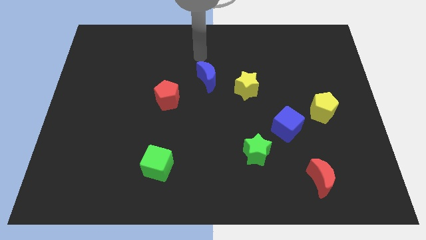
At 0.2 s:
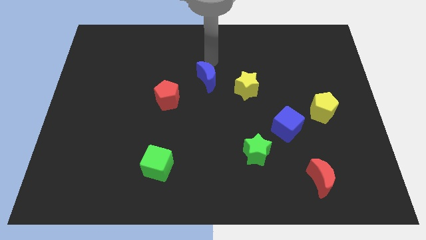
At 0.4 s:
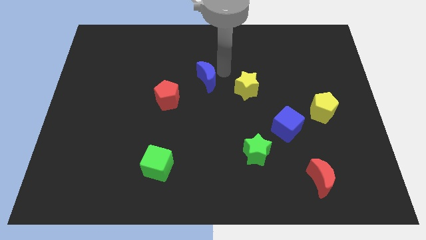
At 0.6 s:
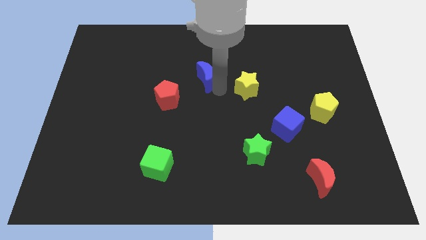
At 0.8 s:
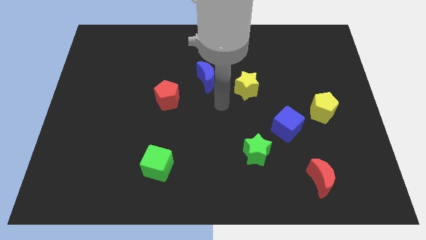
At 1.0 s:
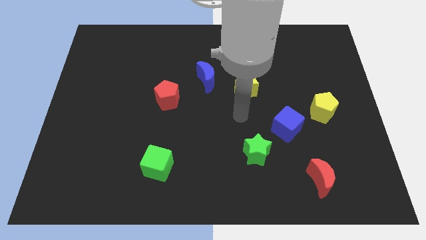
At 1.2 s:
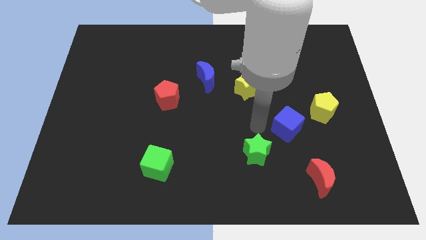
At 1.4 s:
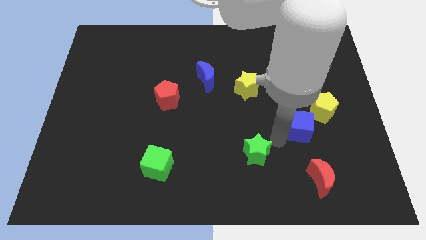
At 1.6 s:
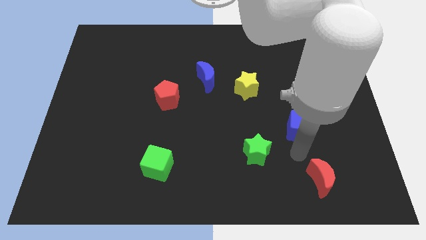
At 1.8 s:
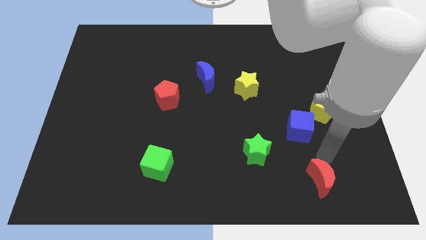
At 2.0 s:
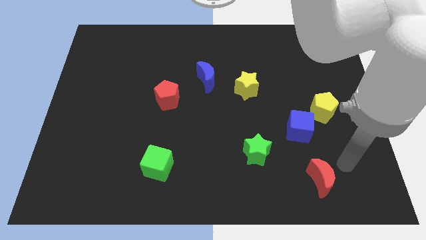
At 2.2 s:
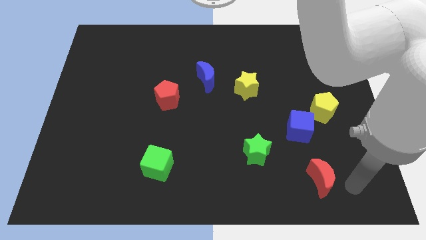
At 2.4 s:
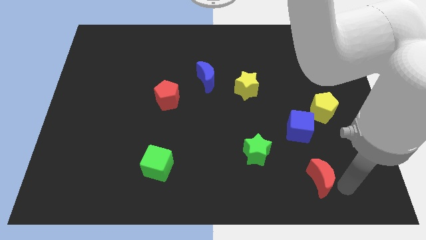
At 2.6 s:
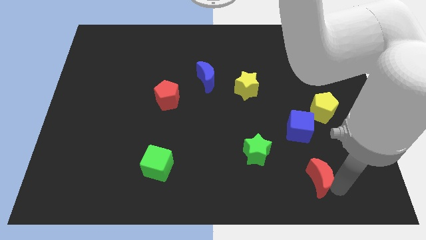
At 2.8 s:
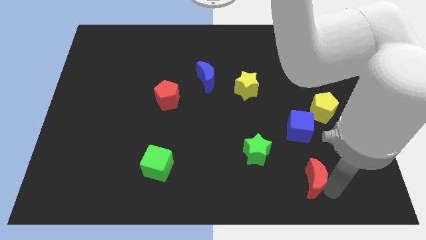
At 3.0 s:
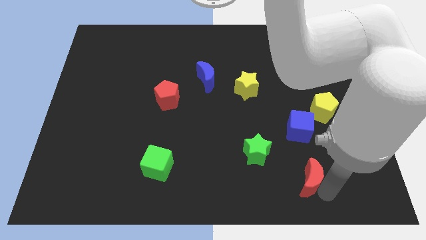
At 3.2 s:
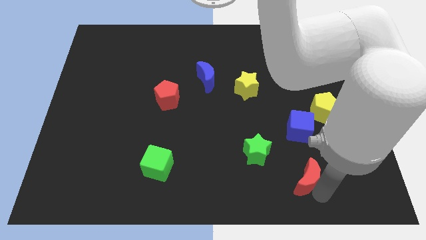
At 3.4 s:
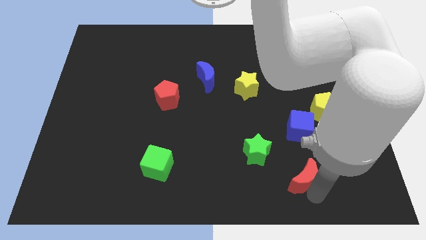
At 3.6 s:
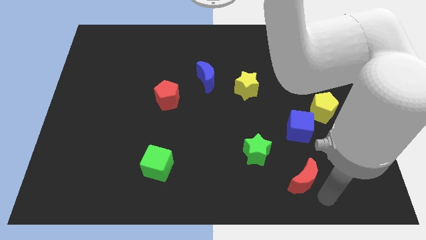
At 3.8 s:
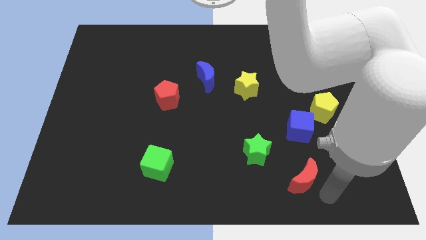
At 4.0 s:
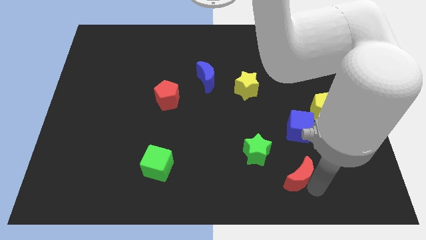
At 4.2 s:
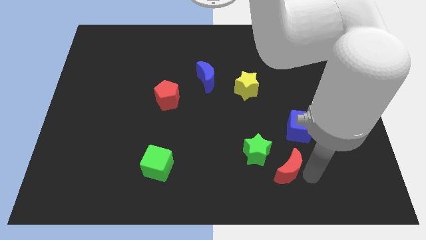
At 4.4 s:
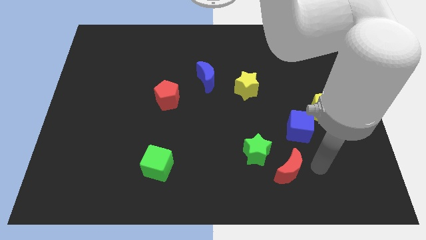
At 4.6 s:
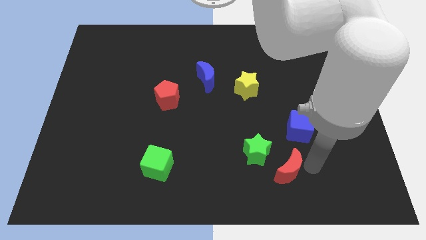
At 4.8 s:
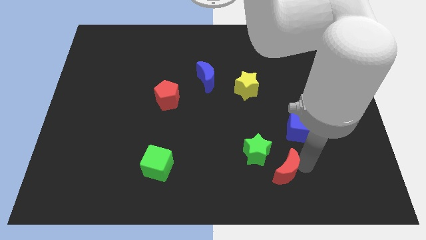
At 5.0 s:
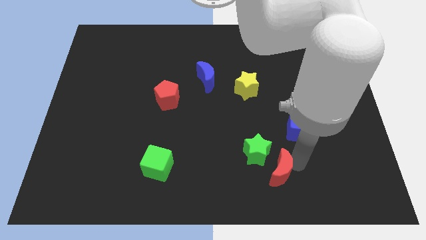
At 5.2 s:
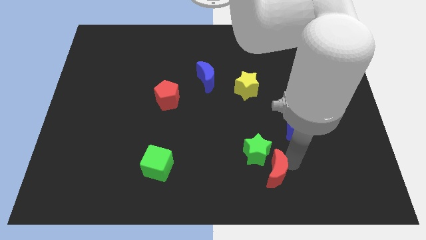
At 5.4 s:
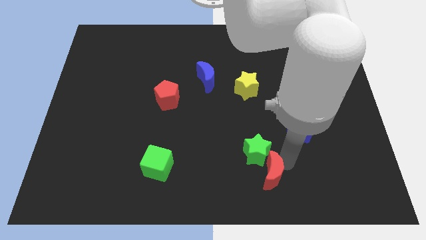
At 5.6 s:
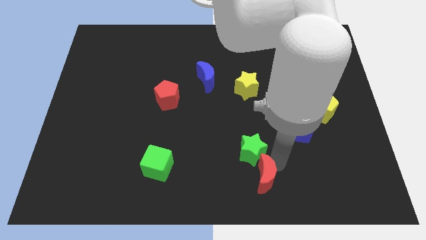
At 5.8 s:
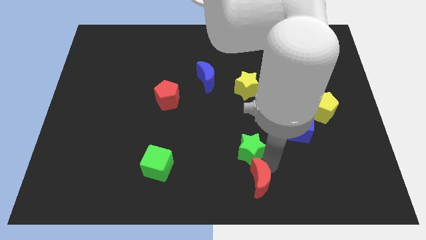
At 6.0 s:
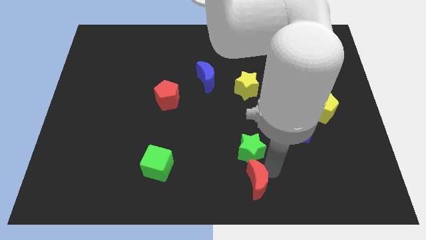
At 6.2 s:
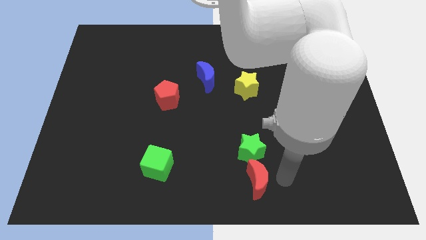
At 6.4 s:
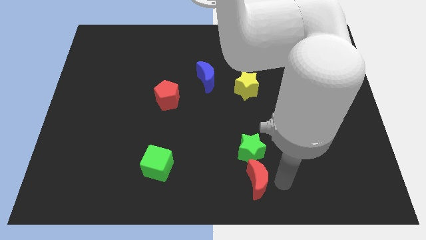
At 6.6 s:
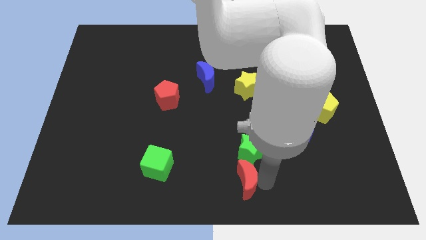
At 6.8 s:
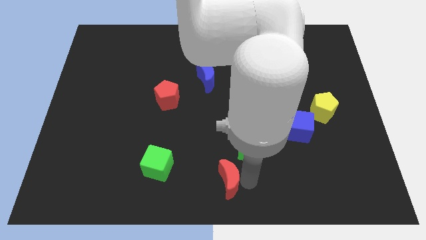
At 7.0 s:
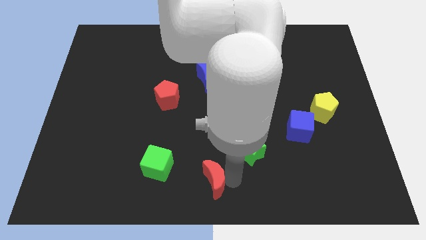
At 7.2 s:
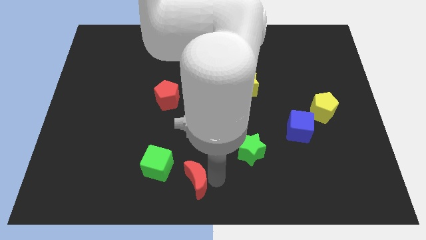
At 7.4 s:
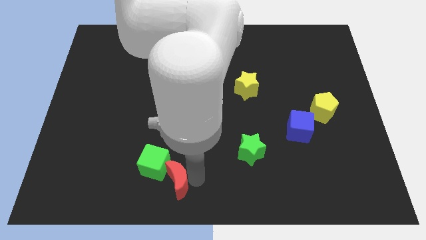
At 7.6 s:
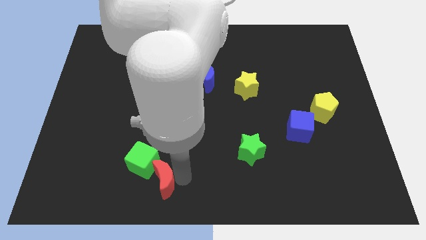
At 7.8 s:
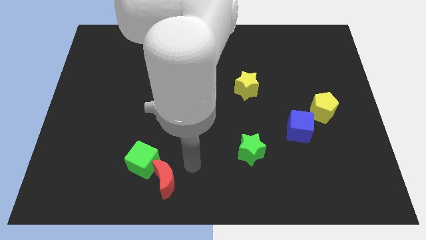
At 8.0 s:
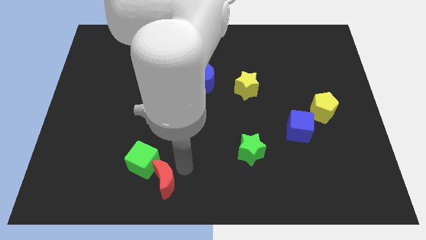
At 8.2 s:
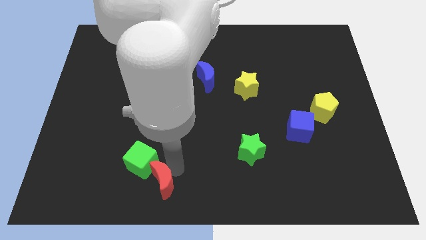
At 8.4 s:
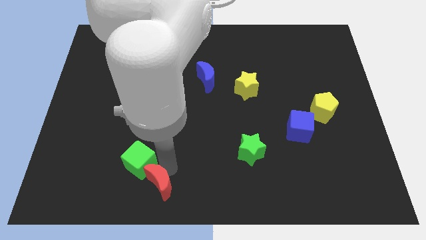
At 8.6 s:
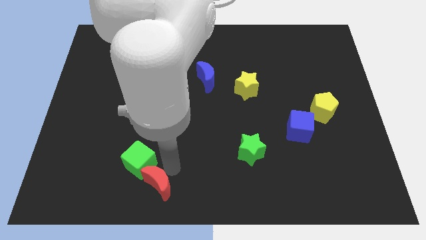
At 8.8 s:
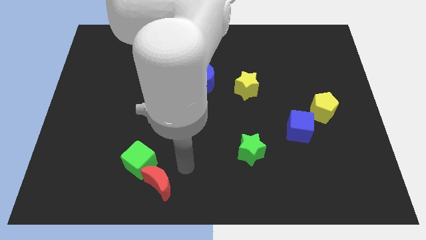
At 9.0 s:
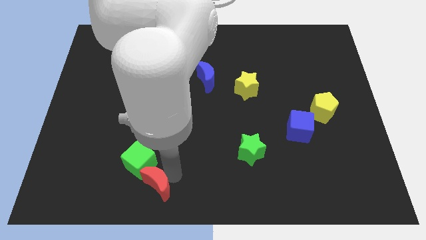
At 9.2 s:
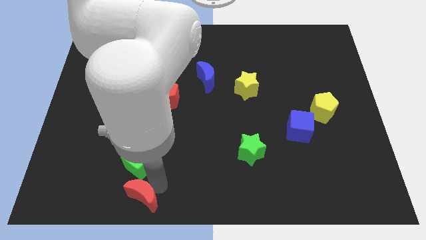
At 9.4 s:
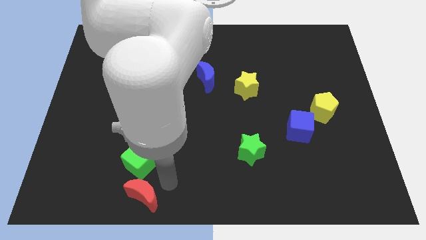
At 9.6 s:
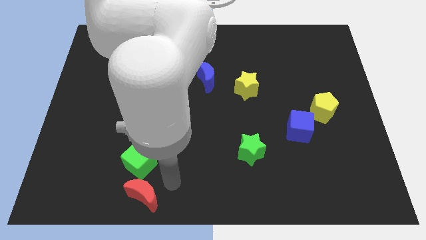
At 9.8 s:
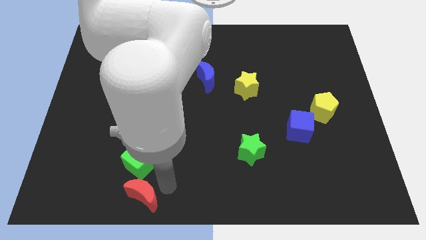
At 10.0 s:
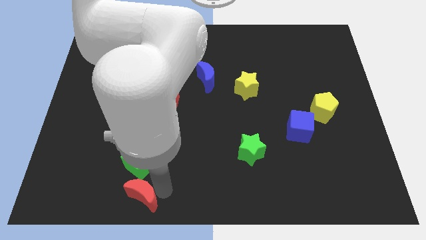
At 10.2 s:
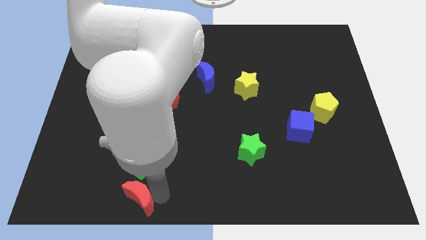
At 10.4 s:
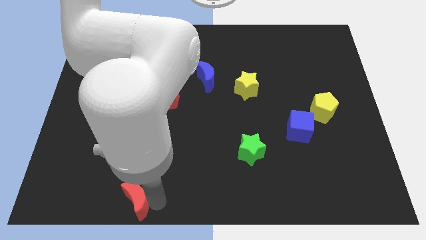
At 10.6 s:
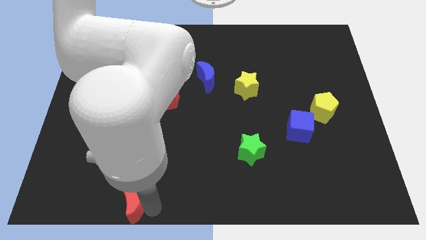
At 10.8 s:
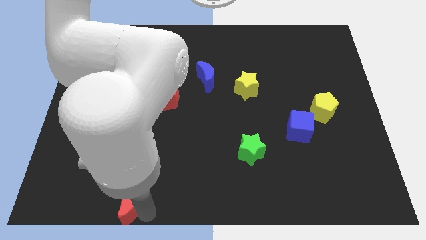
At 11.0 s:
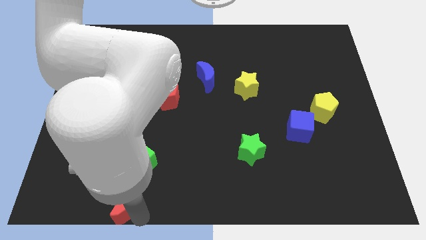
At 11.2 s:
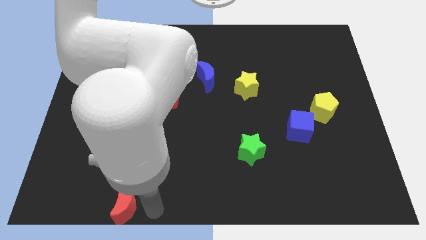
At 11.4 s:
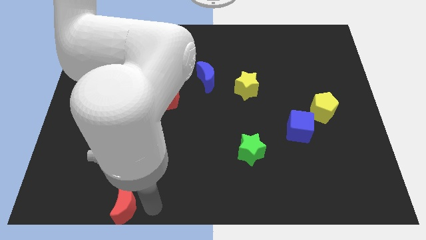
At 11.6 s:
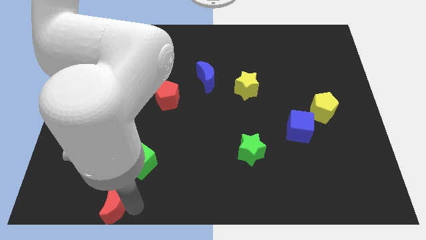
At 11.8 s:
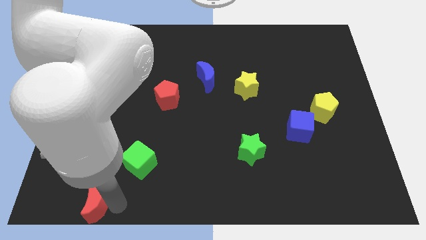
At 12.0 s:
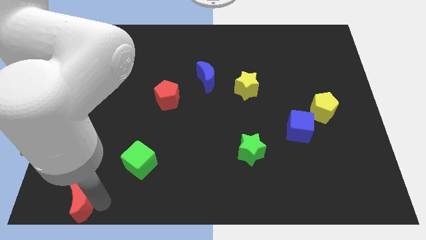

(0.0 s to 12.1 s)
move the red moon to the bottom left
